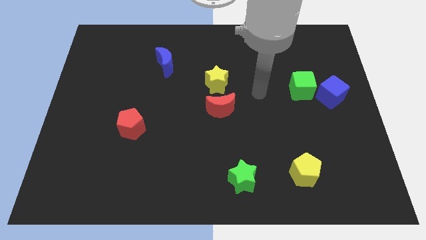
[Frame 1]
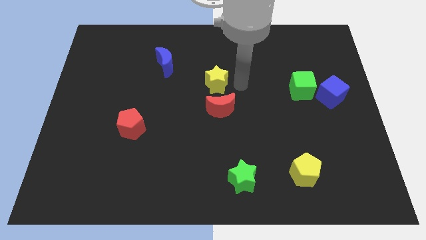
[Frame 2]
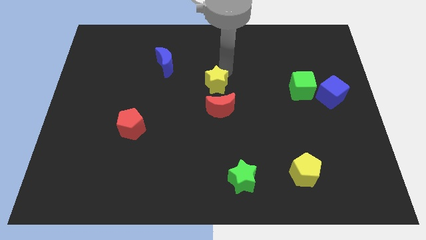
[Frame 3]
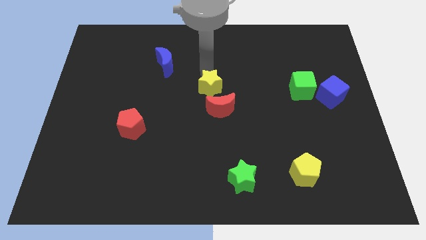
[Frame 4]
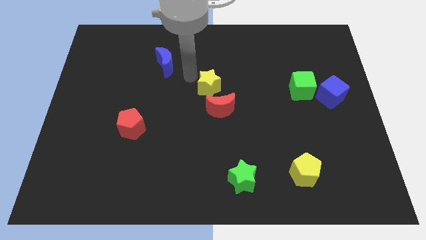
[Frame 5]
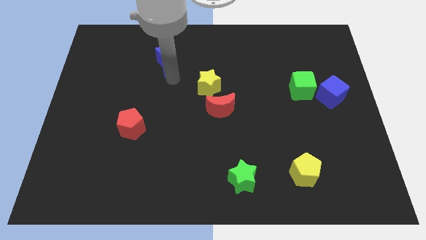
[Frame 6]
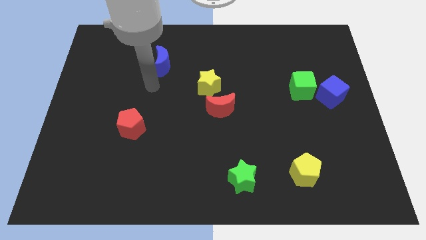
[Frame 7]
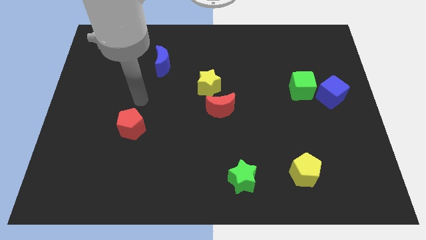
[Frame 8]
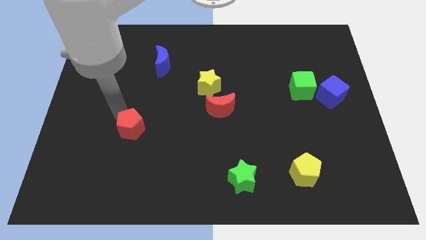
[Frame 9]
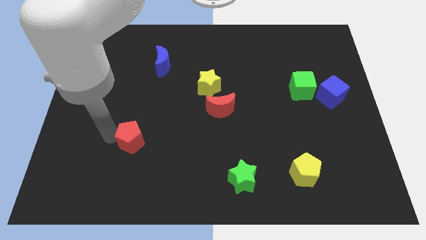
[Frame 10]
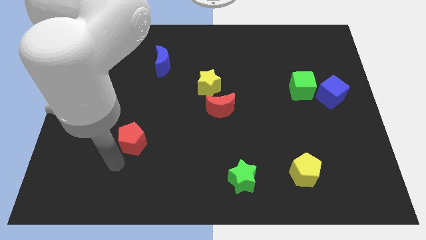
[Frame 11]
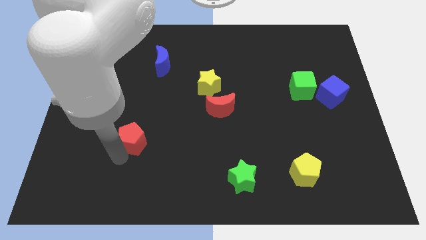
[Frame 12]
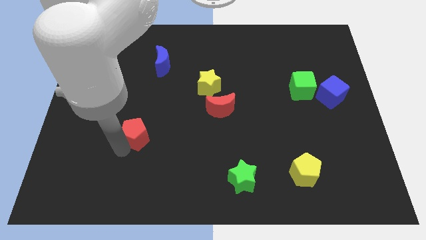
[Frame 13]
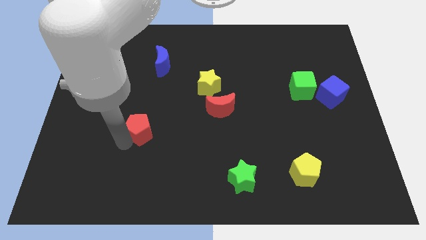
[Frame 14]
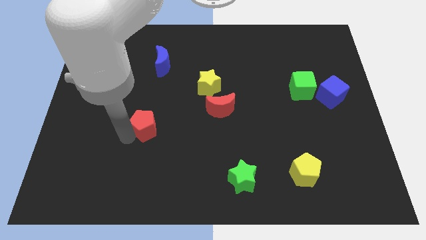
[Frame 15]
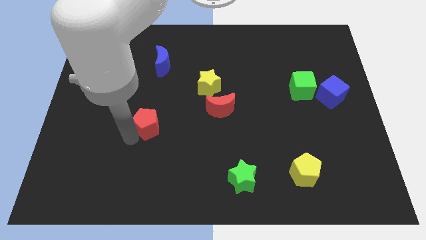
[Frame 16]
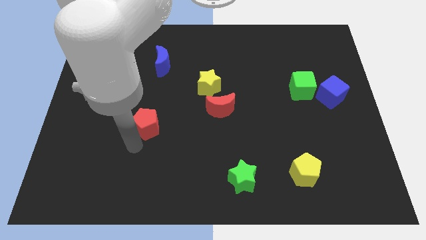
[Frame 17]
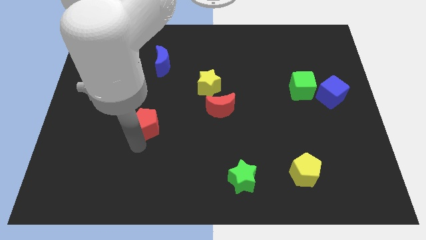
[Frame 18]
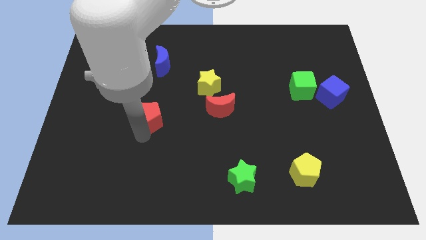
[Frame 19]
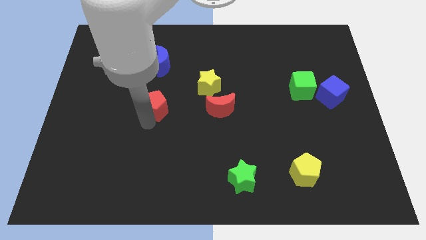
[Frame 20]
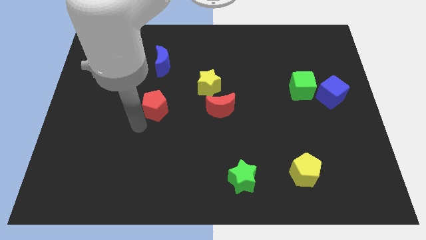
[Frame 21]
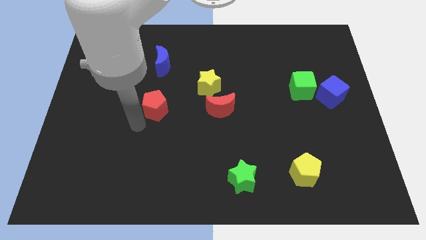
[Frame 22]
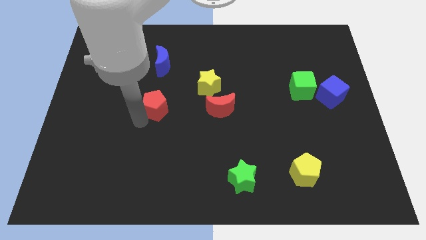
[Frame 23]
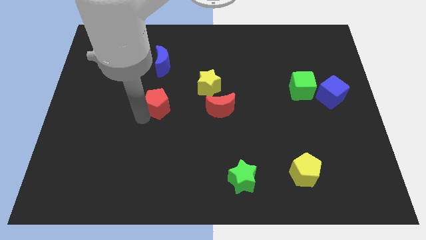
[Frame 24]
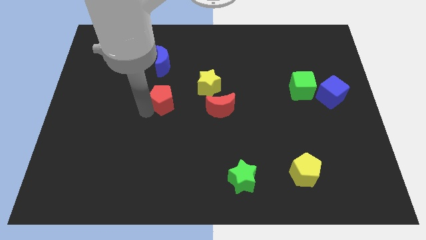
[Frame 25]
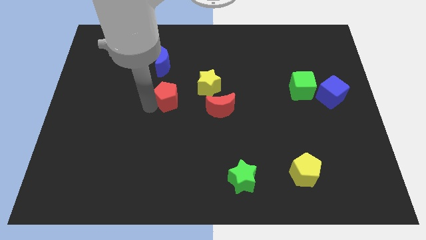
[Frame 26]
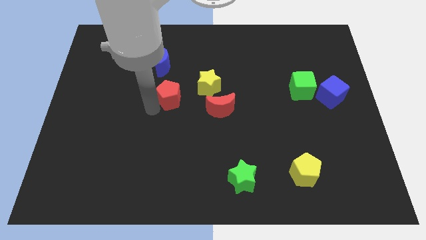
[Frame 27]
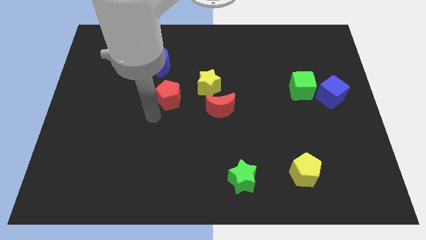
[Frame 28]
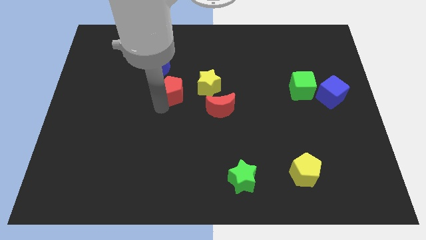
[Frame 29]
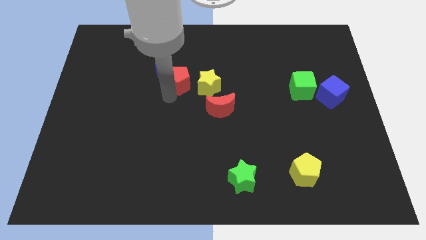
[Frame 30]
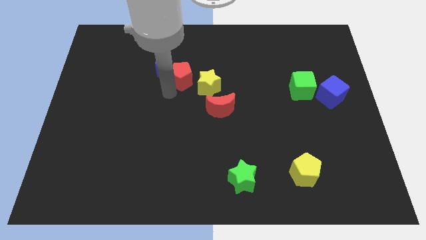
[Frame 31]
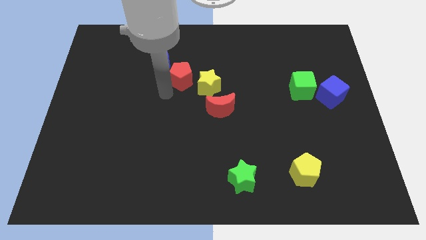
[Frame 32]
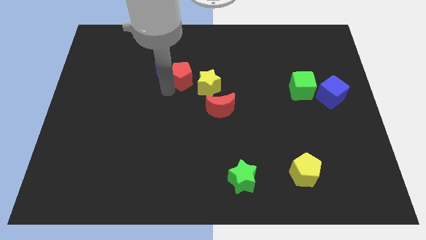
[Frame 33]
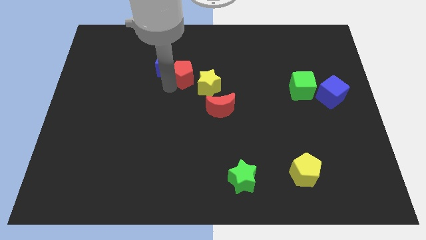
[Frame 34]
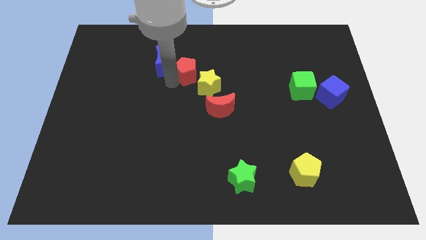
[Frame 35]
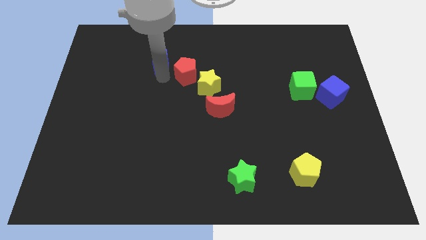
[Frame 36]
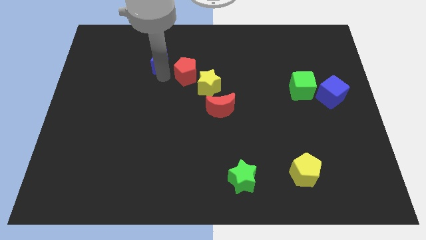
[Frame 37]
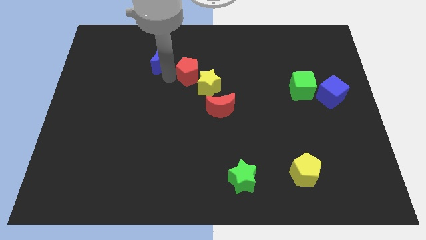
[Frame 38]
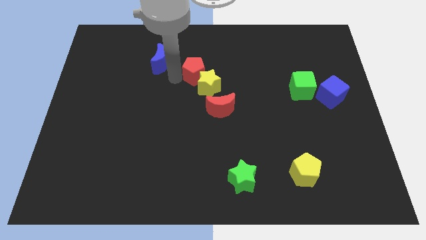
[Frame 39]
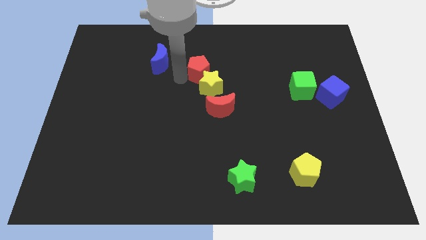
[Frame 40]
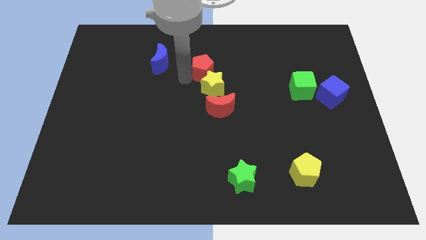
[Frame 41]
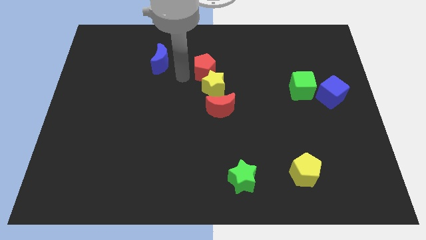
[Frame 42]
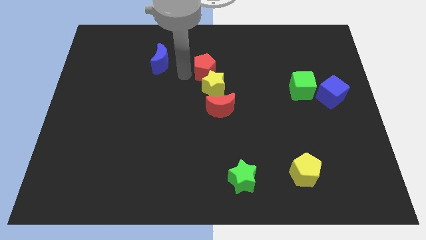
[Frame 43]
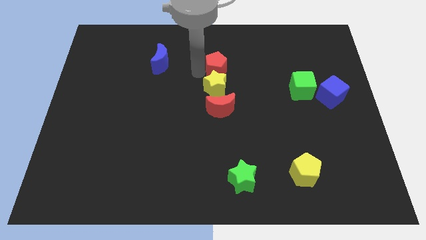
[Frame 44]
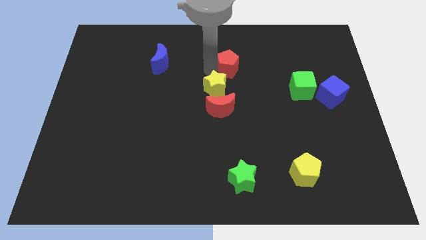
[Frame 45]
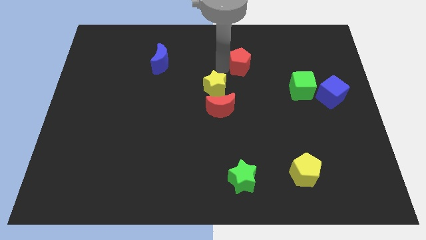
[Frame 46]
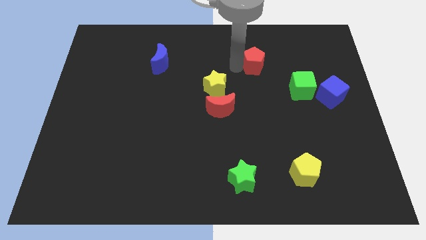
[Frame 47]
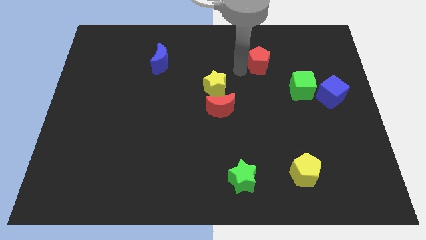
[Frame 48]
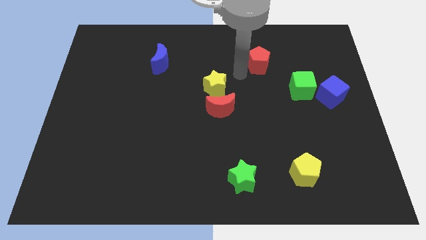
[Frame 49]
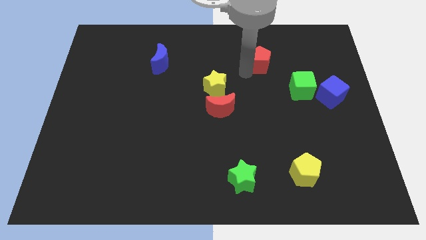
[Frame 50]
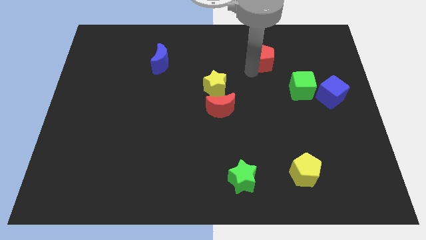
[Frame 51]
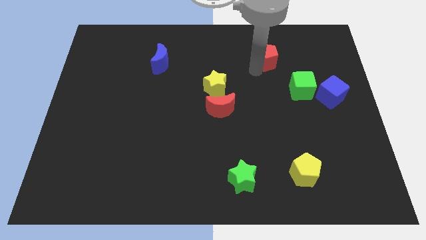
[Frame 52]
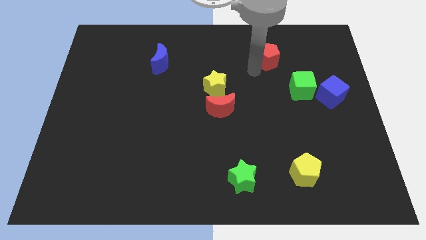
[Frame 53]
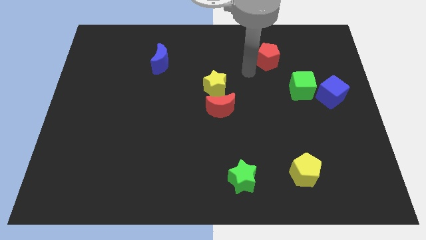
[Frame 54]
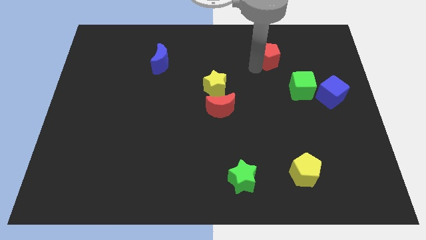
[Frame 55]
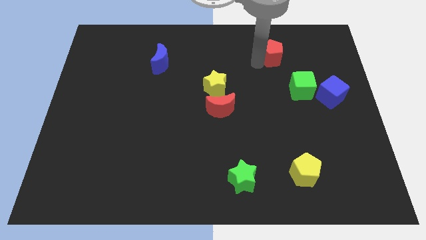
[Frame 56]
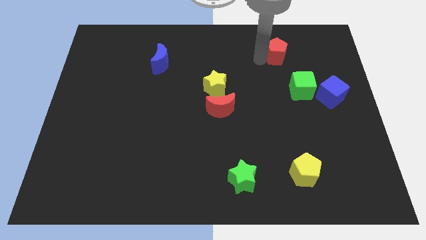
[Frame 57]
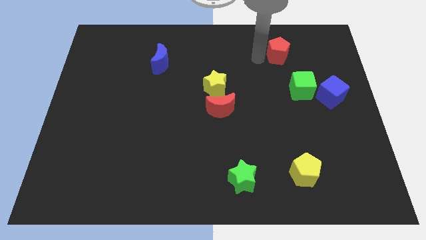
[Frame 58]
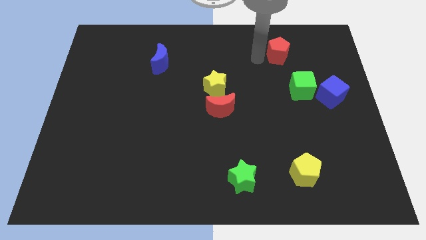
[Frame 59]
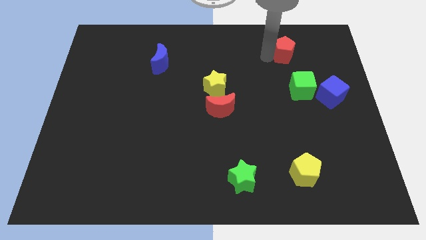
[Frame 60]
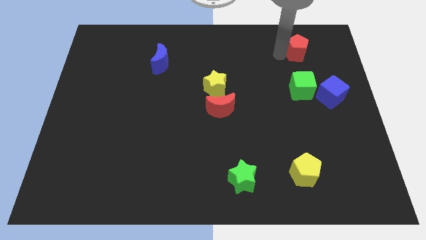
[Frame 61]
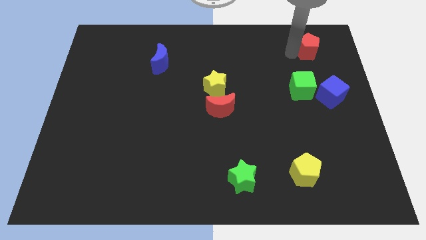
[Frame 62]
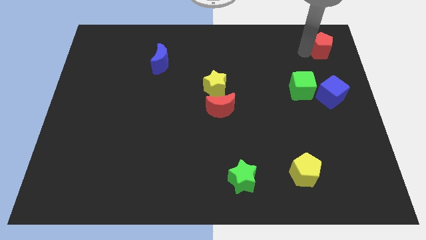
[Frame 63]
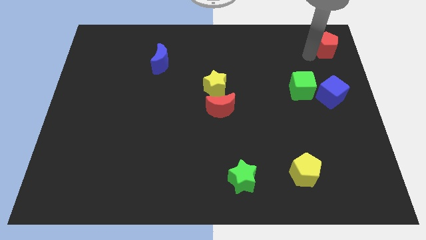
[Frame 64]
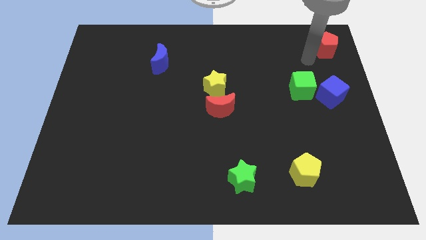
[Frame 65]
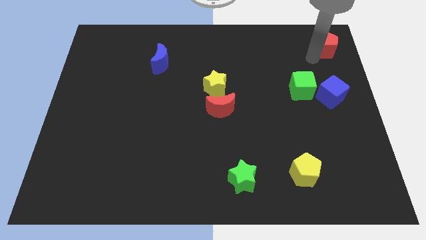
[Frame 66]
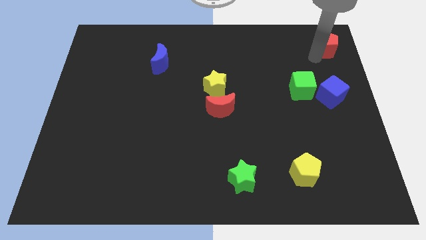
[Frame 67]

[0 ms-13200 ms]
put the red pentagon to the top right corner
